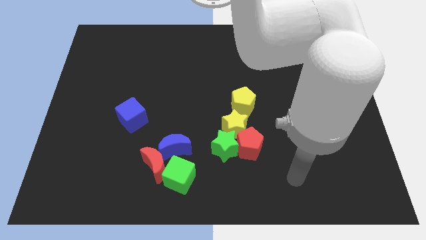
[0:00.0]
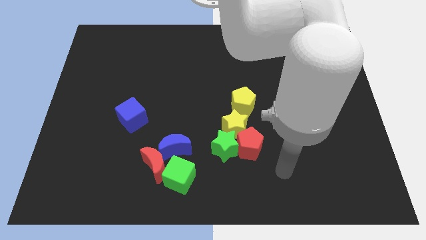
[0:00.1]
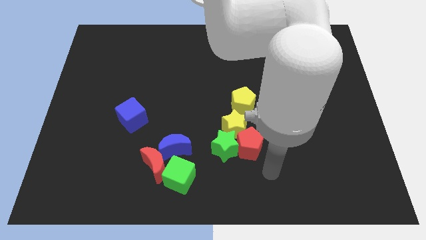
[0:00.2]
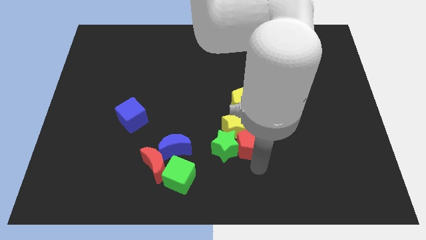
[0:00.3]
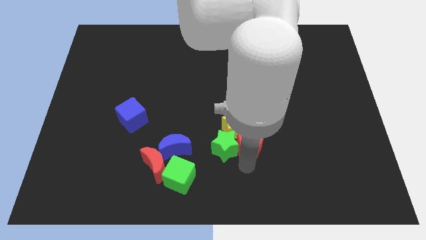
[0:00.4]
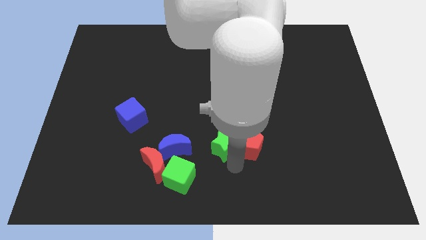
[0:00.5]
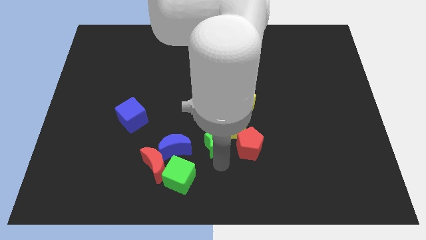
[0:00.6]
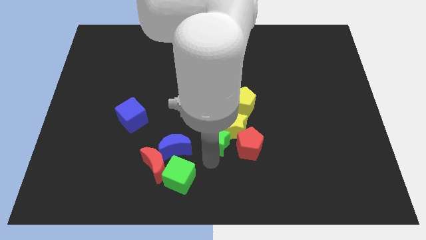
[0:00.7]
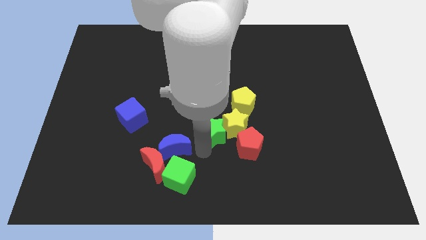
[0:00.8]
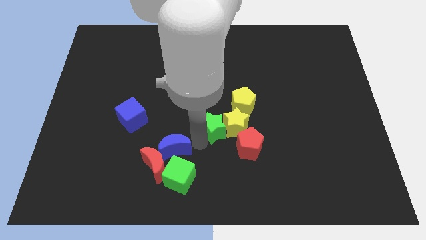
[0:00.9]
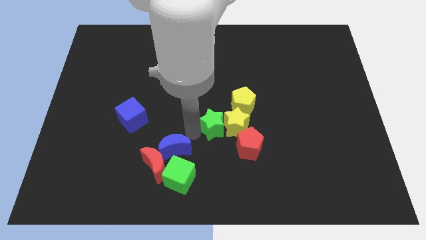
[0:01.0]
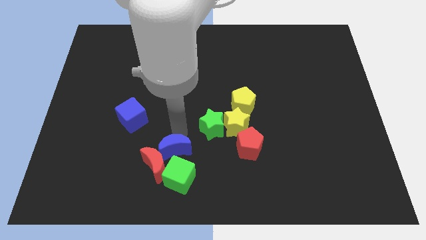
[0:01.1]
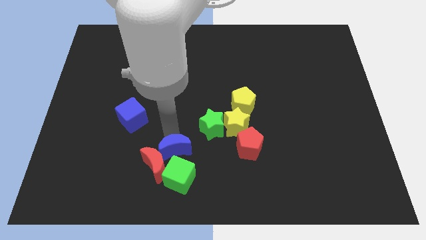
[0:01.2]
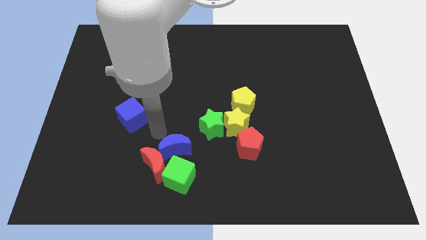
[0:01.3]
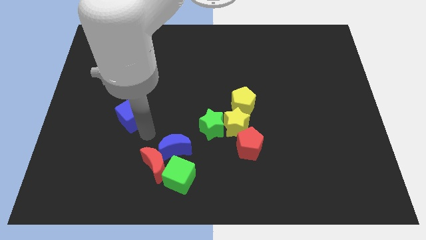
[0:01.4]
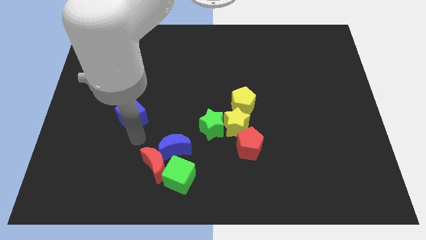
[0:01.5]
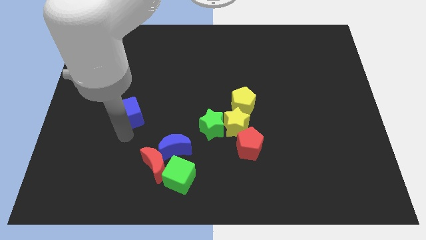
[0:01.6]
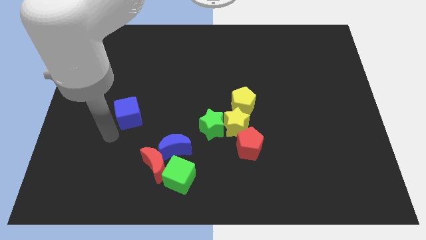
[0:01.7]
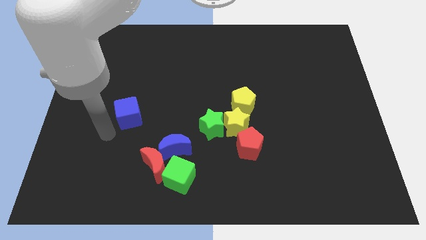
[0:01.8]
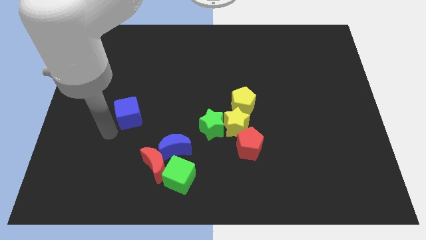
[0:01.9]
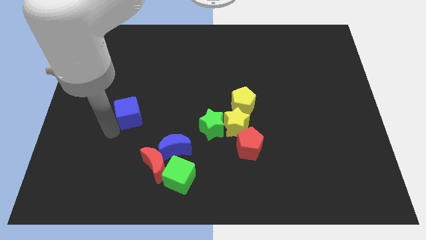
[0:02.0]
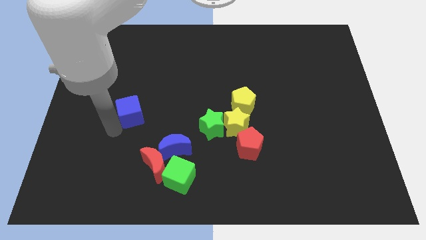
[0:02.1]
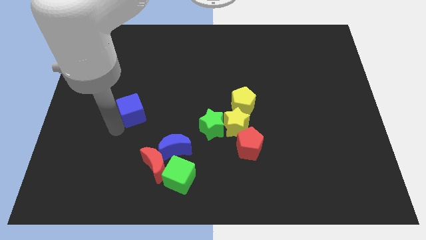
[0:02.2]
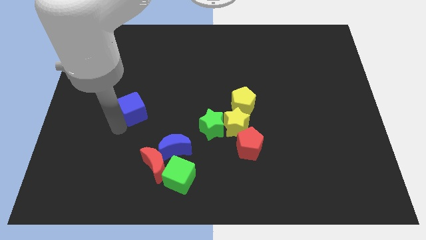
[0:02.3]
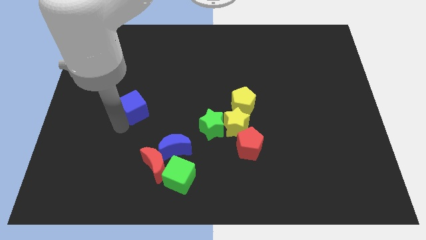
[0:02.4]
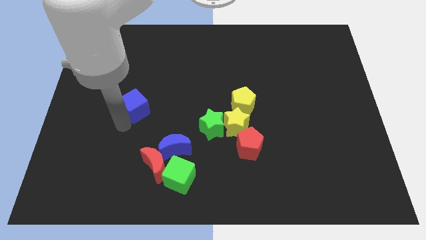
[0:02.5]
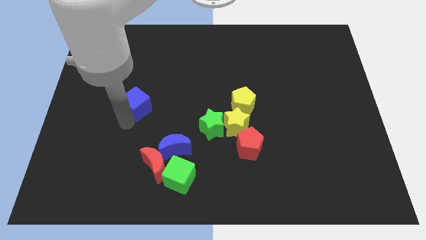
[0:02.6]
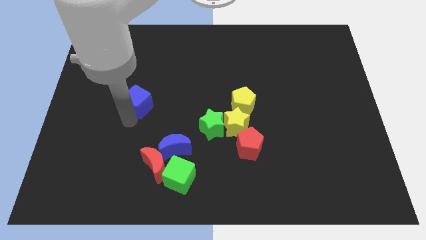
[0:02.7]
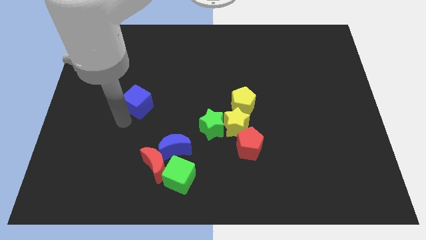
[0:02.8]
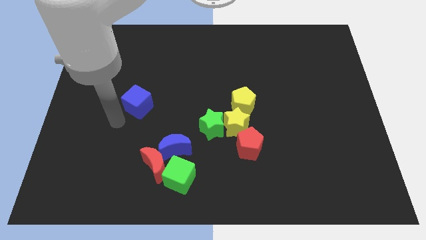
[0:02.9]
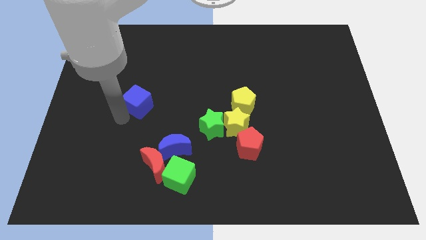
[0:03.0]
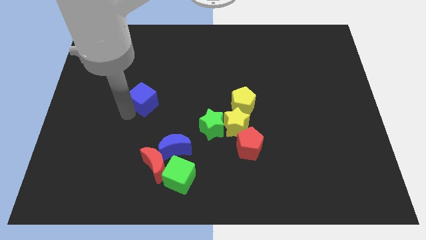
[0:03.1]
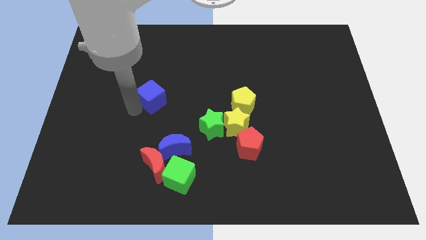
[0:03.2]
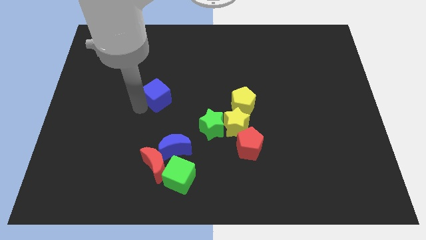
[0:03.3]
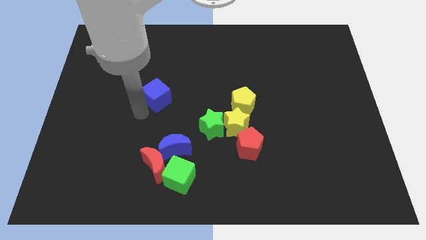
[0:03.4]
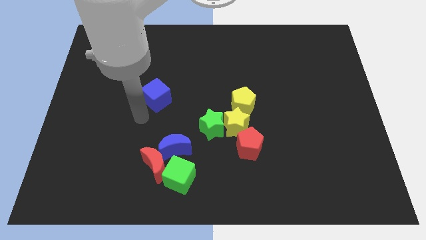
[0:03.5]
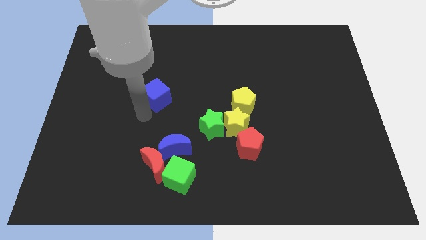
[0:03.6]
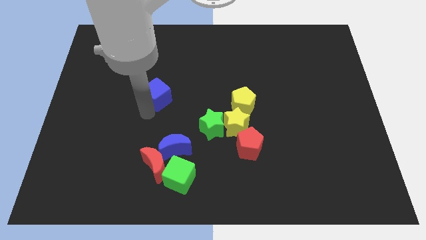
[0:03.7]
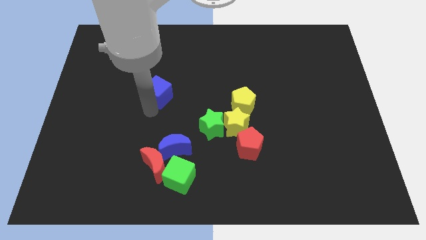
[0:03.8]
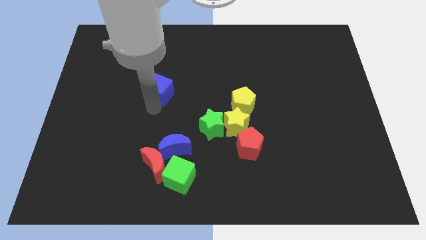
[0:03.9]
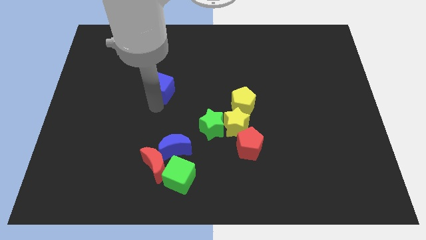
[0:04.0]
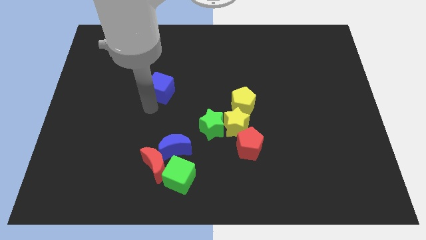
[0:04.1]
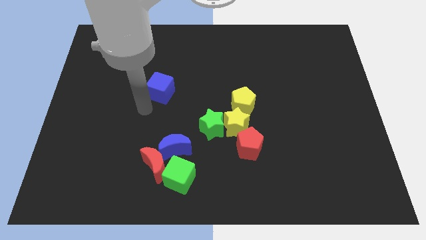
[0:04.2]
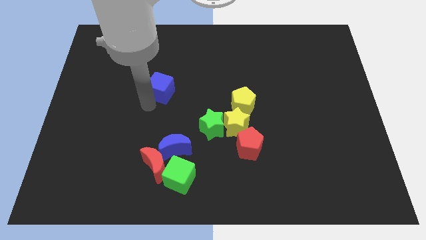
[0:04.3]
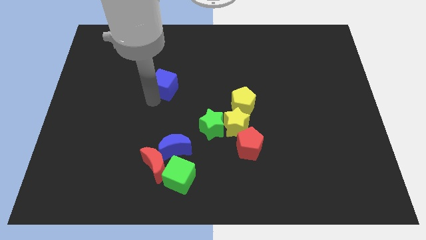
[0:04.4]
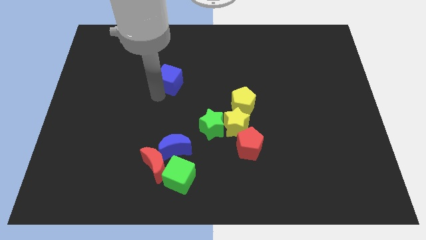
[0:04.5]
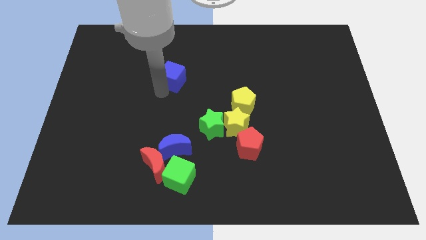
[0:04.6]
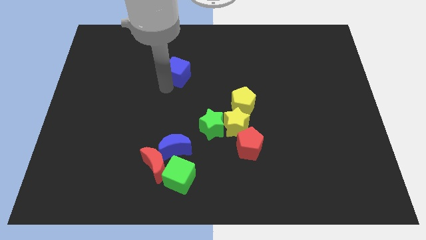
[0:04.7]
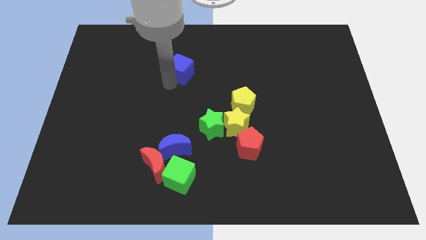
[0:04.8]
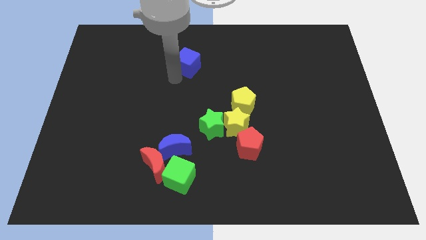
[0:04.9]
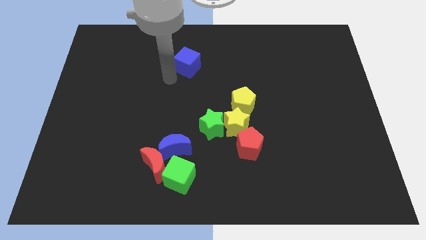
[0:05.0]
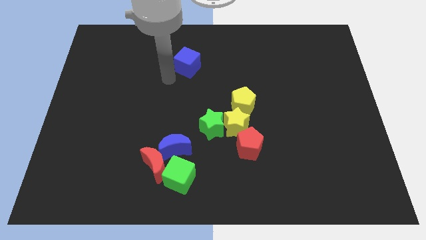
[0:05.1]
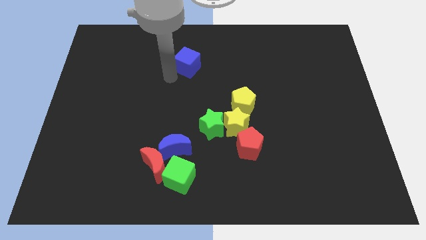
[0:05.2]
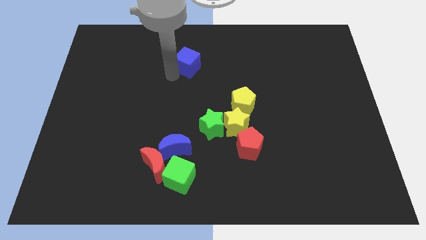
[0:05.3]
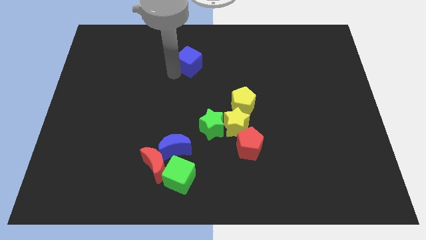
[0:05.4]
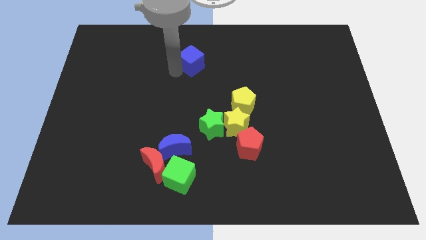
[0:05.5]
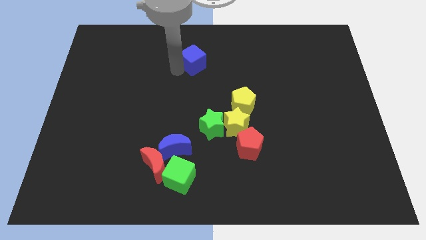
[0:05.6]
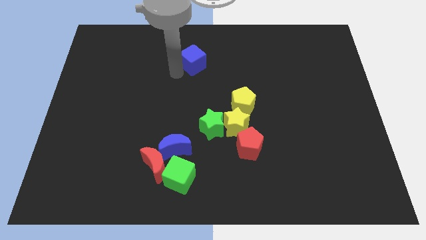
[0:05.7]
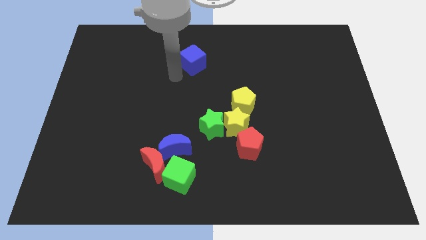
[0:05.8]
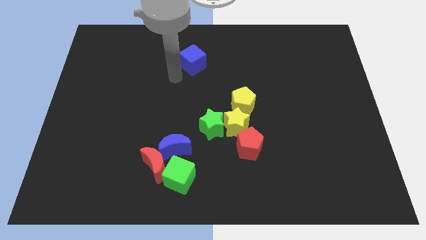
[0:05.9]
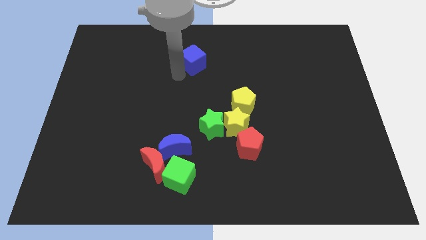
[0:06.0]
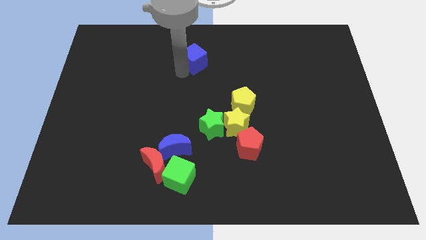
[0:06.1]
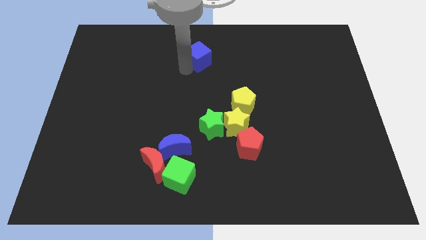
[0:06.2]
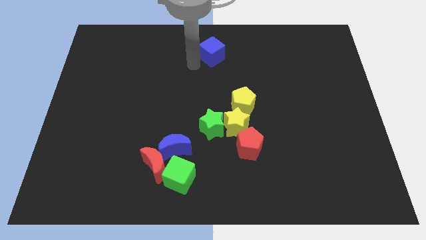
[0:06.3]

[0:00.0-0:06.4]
move the blue cube to the top

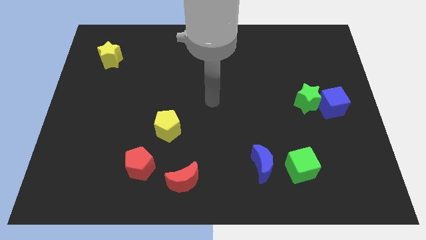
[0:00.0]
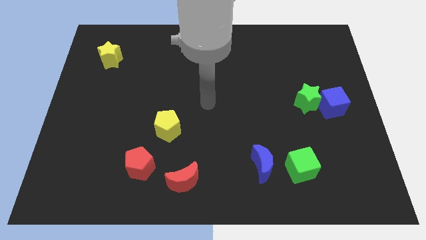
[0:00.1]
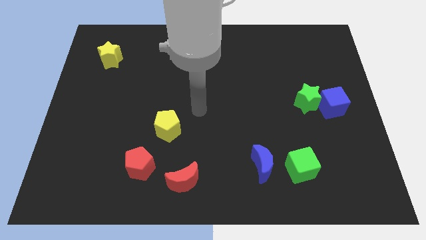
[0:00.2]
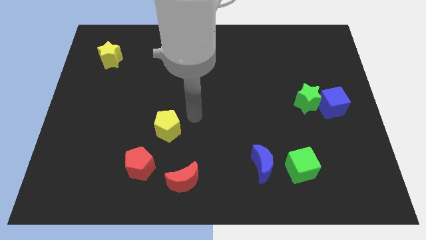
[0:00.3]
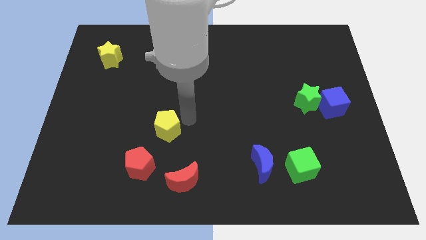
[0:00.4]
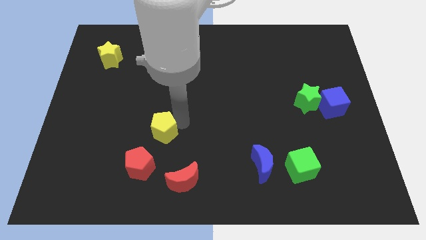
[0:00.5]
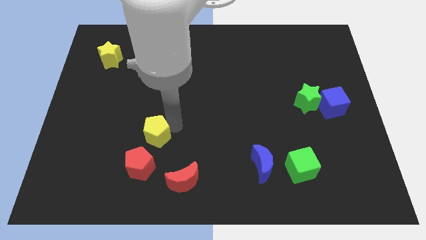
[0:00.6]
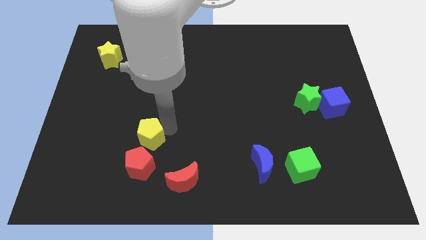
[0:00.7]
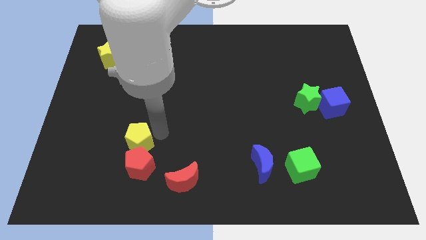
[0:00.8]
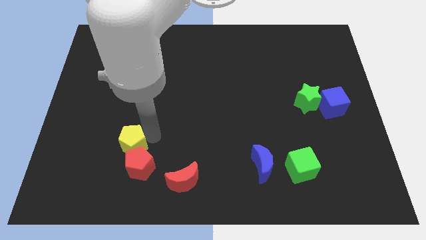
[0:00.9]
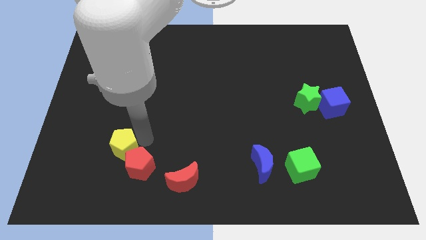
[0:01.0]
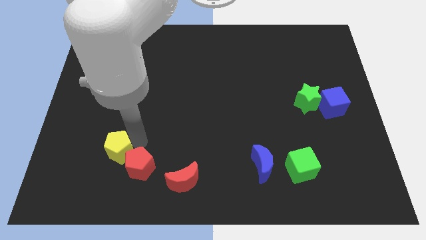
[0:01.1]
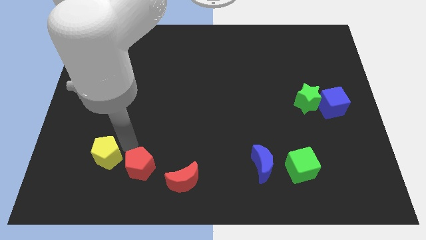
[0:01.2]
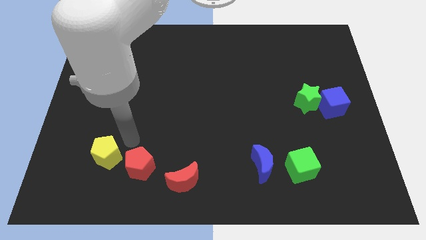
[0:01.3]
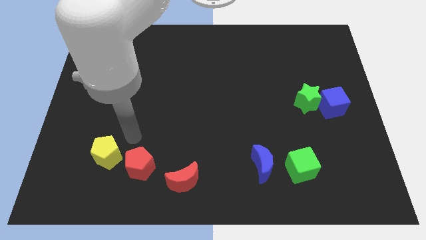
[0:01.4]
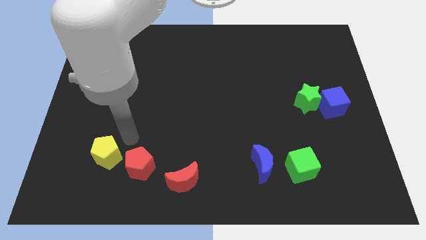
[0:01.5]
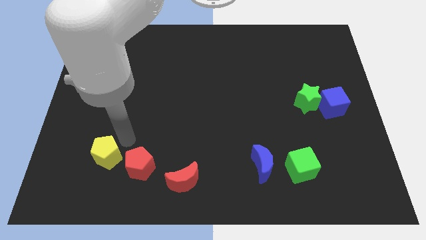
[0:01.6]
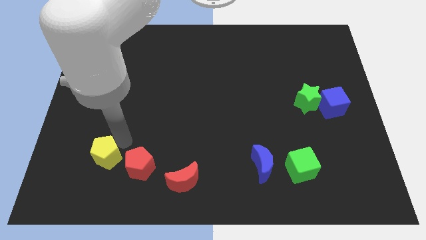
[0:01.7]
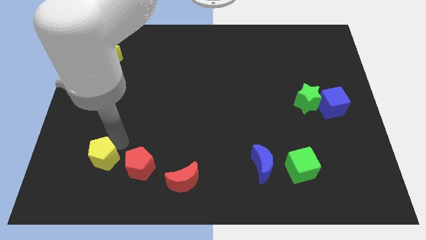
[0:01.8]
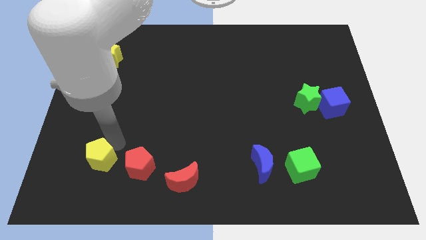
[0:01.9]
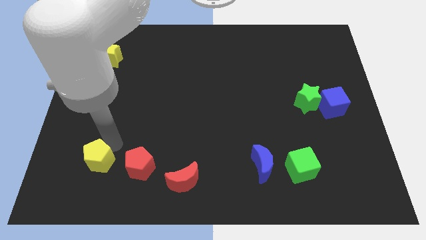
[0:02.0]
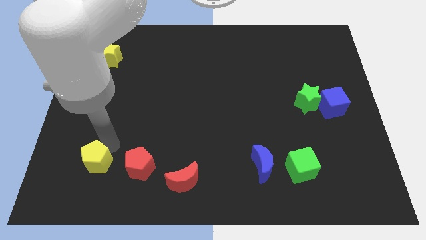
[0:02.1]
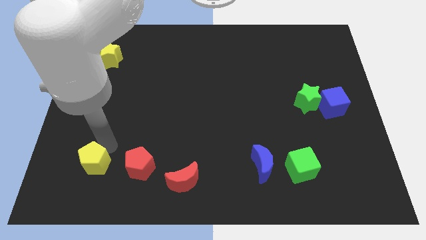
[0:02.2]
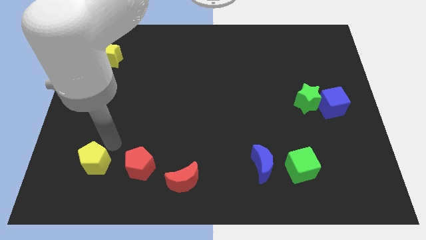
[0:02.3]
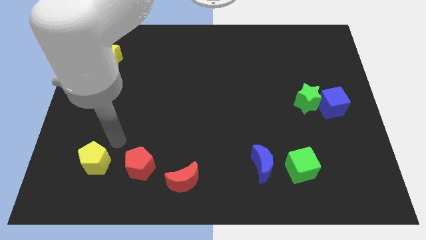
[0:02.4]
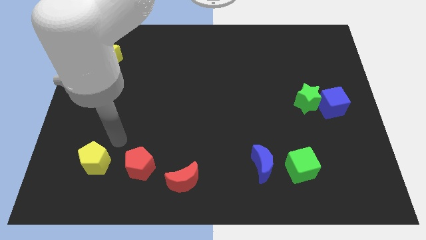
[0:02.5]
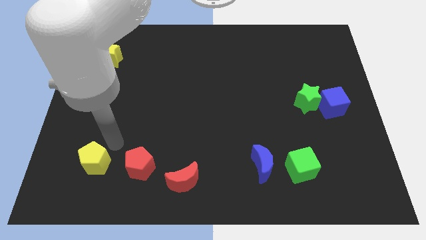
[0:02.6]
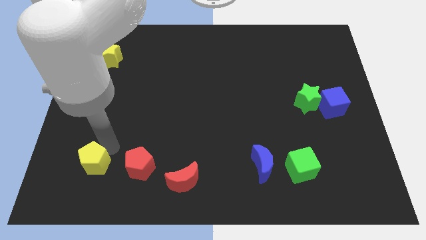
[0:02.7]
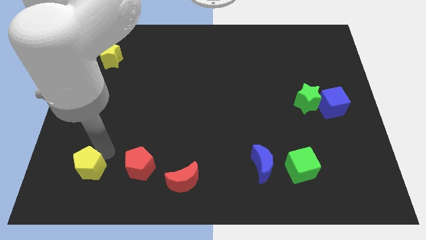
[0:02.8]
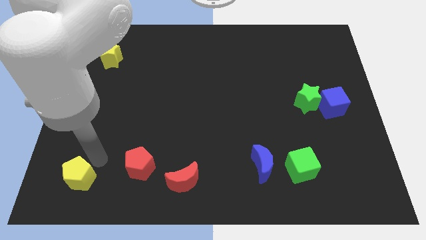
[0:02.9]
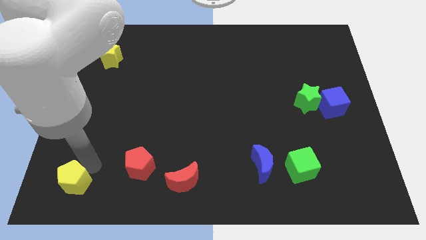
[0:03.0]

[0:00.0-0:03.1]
move the yellow pentagon to the lower left corner
